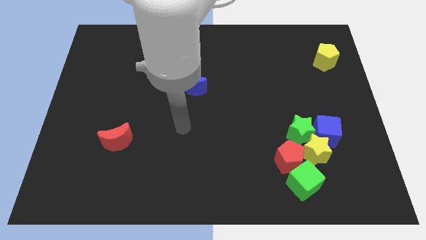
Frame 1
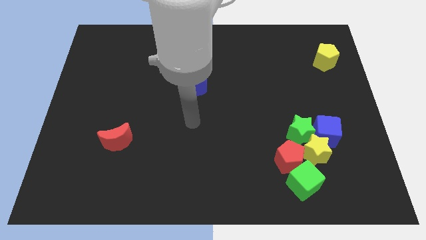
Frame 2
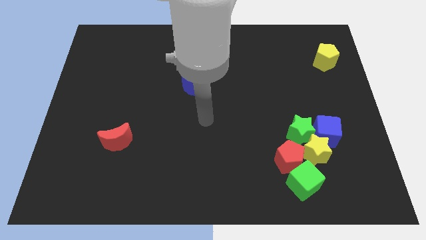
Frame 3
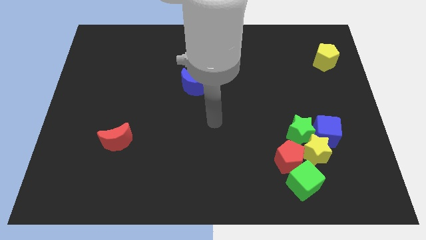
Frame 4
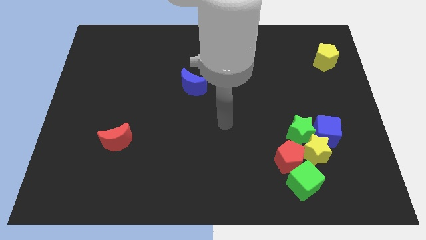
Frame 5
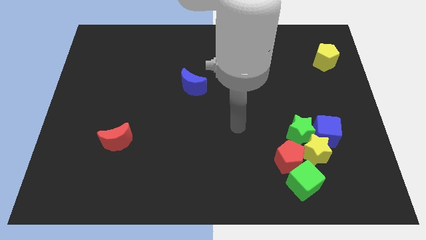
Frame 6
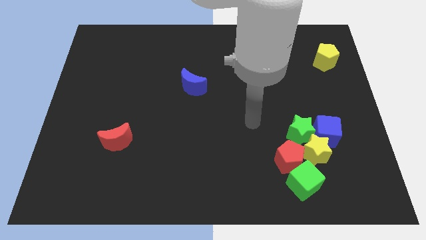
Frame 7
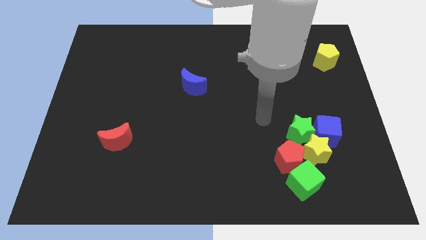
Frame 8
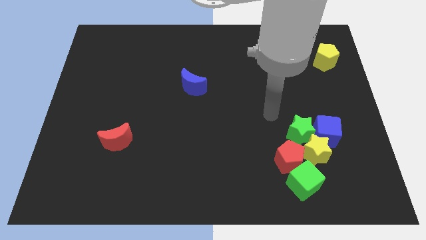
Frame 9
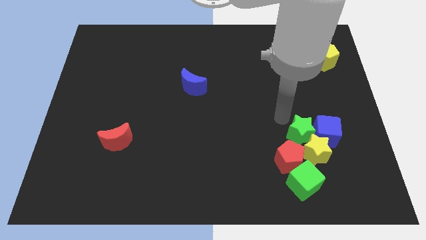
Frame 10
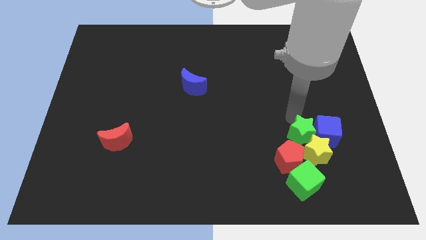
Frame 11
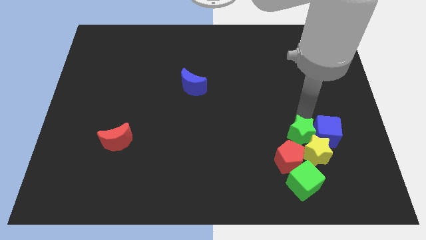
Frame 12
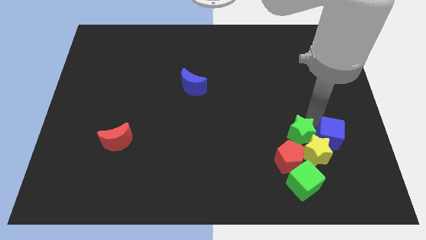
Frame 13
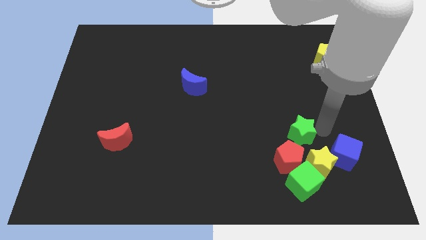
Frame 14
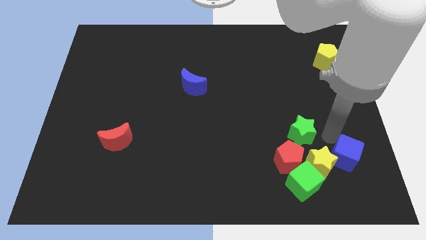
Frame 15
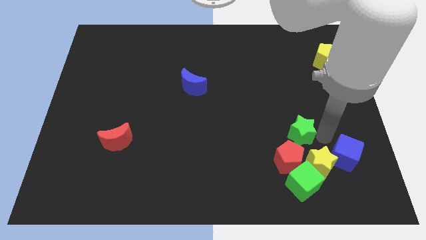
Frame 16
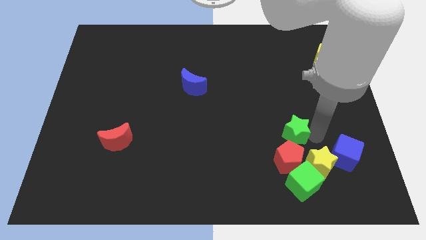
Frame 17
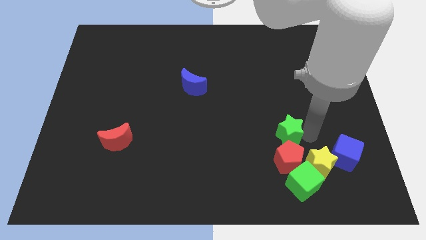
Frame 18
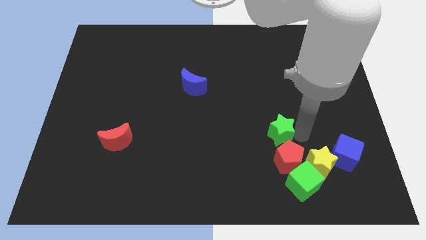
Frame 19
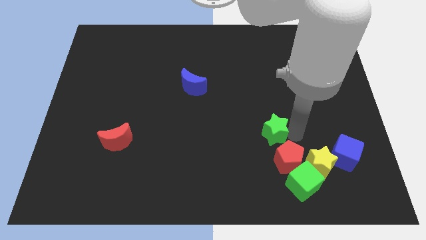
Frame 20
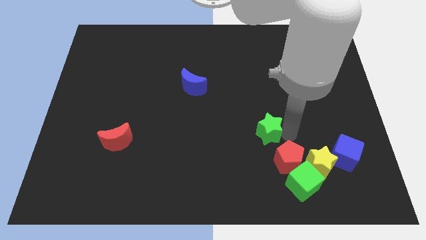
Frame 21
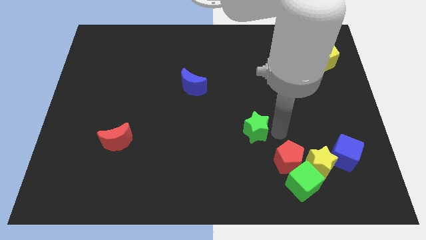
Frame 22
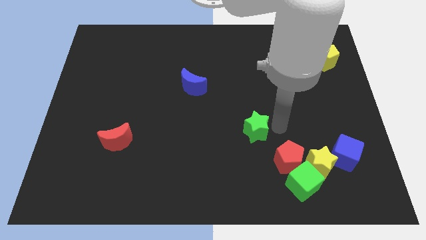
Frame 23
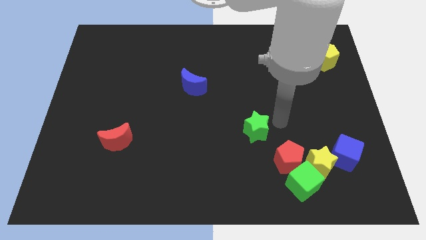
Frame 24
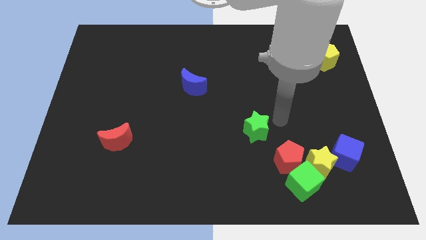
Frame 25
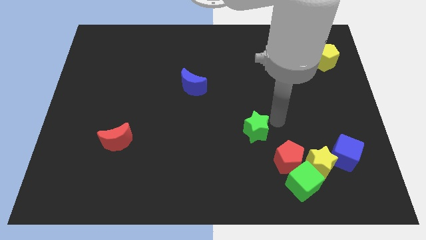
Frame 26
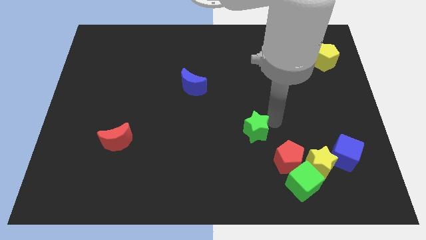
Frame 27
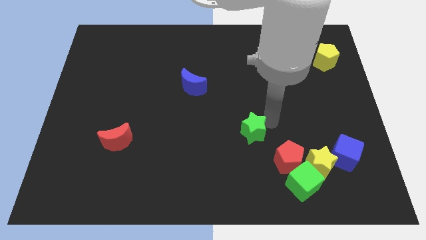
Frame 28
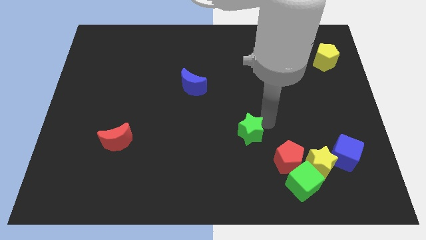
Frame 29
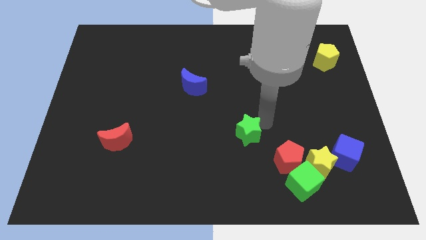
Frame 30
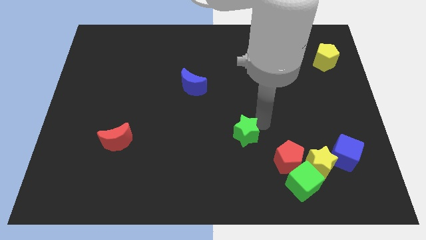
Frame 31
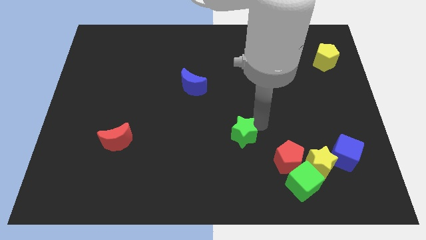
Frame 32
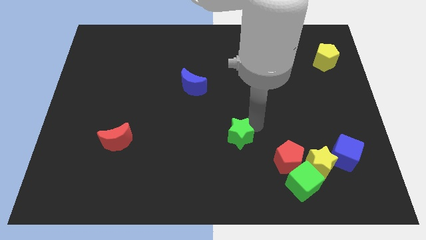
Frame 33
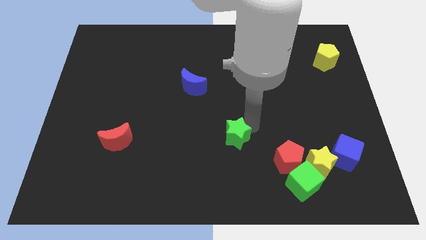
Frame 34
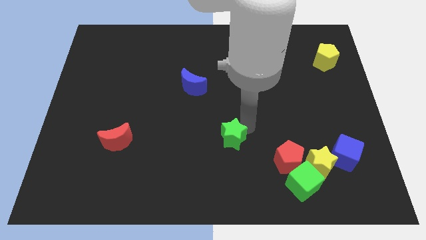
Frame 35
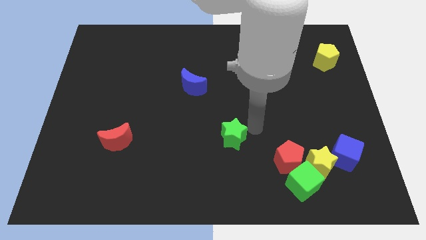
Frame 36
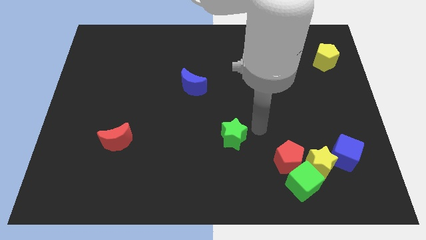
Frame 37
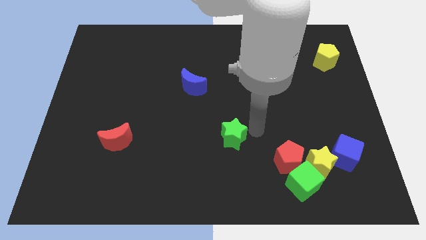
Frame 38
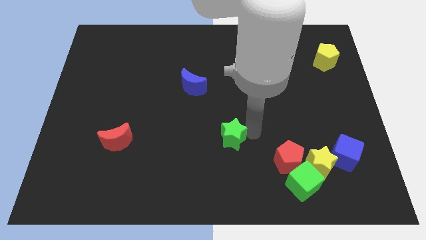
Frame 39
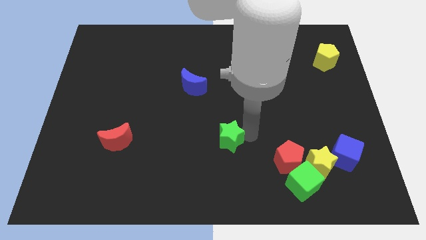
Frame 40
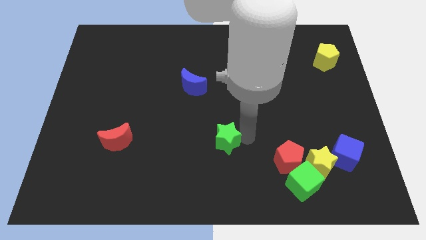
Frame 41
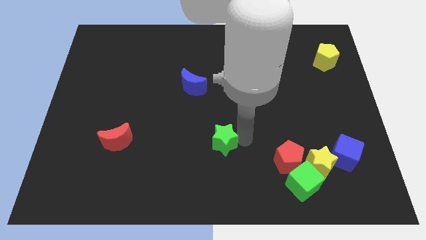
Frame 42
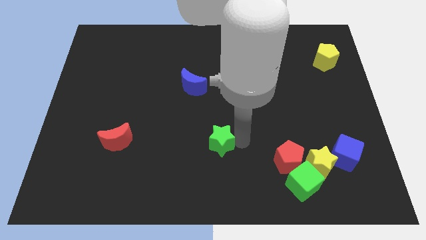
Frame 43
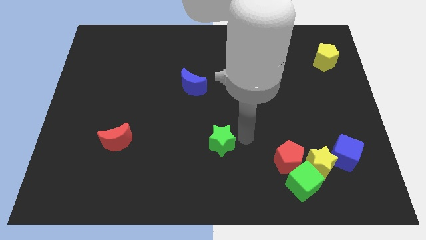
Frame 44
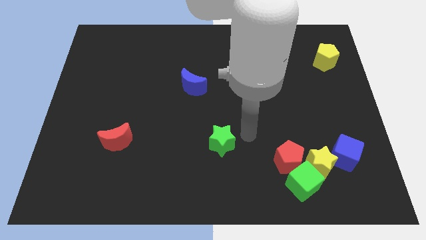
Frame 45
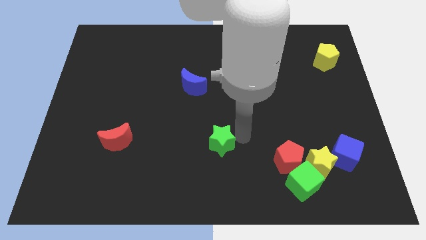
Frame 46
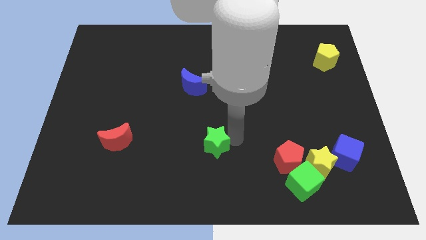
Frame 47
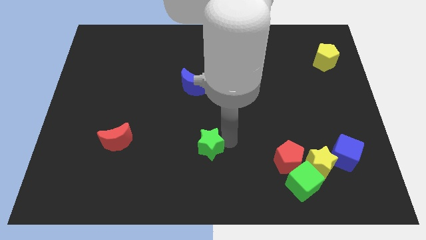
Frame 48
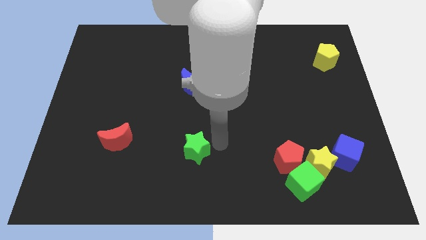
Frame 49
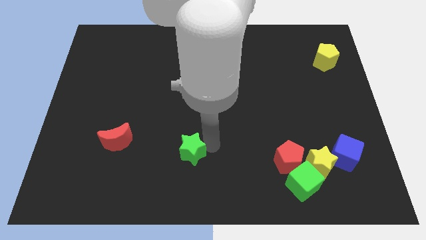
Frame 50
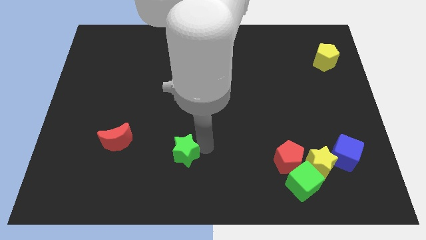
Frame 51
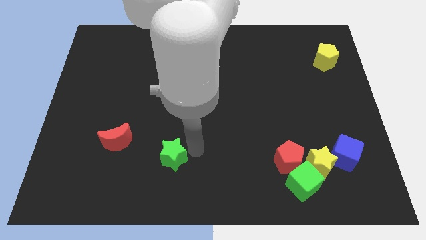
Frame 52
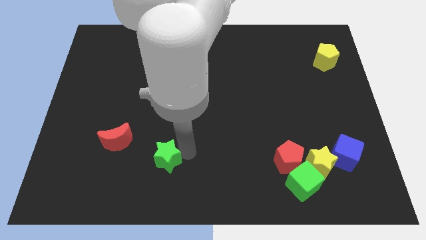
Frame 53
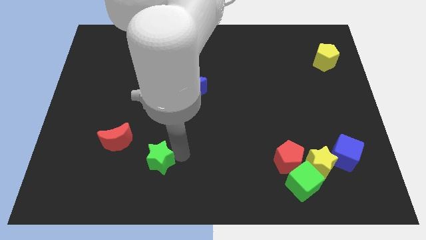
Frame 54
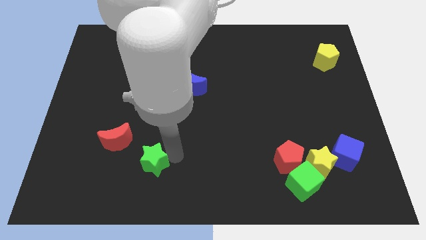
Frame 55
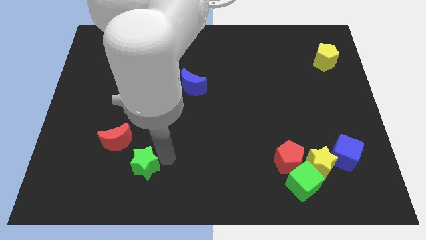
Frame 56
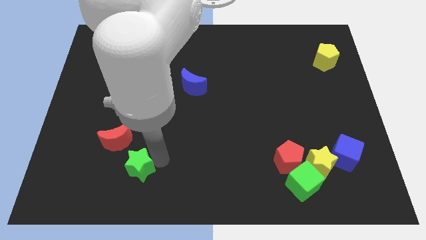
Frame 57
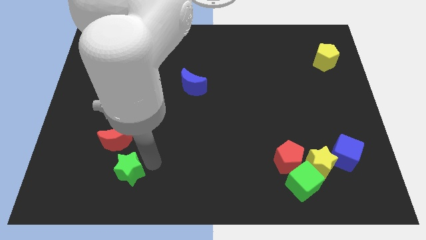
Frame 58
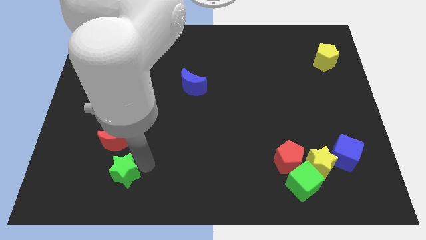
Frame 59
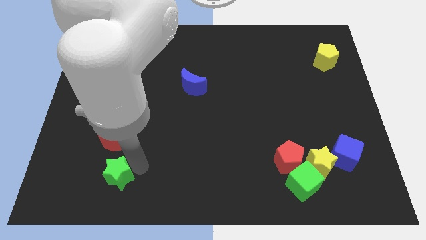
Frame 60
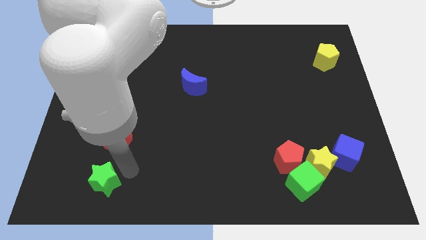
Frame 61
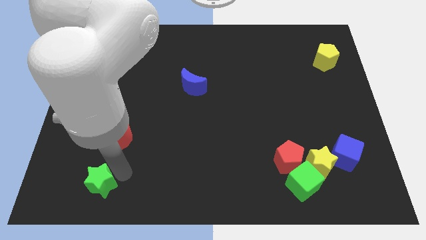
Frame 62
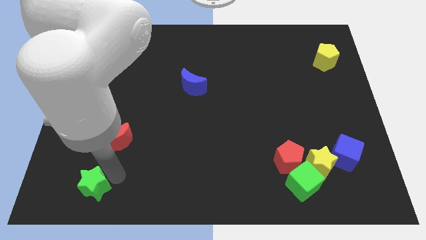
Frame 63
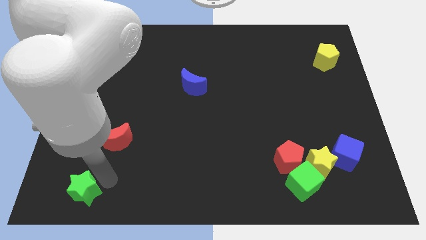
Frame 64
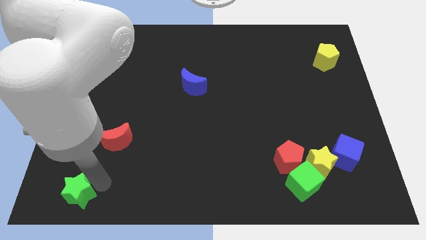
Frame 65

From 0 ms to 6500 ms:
put the green star to the lower left corner

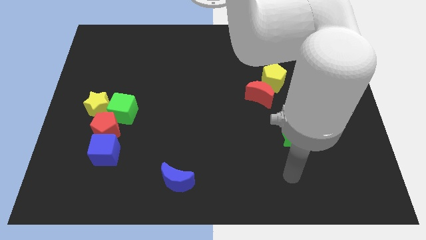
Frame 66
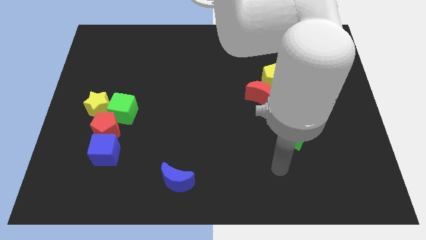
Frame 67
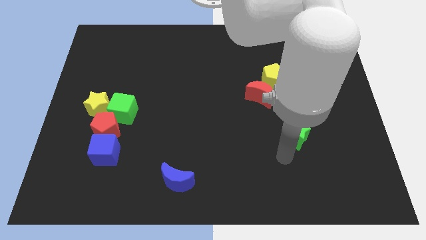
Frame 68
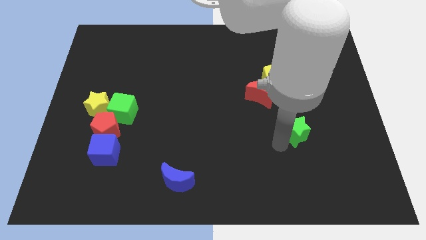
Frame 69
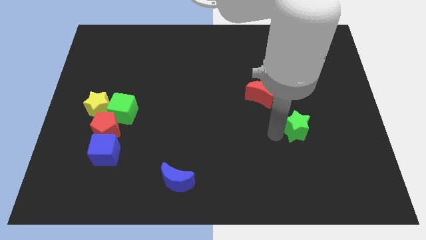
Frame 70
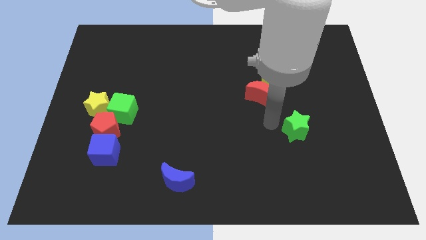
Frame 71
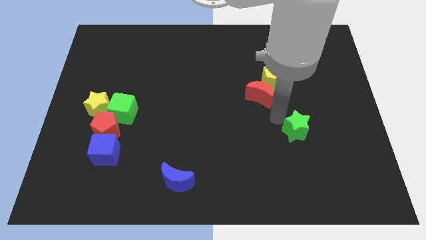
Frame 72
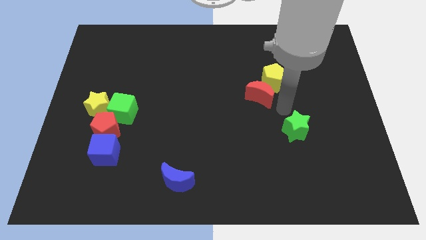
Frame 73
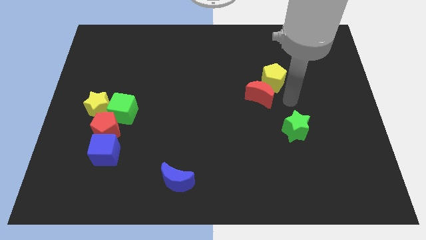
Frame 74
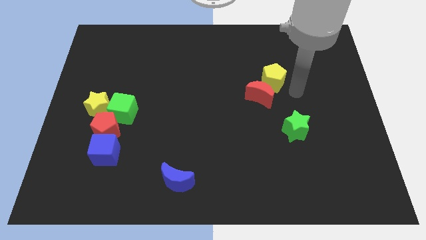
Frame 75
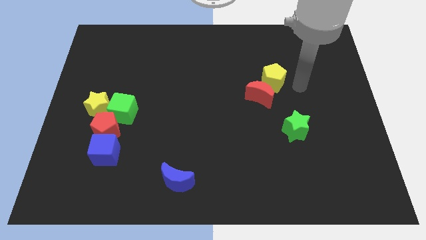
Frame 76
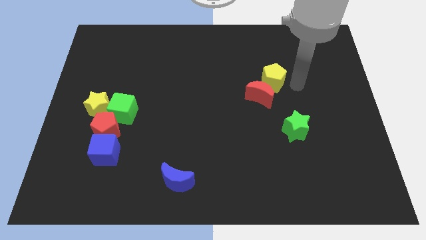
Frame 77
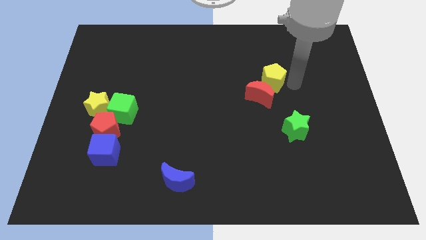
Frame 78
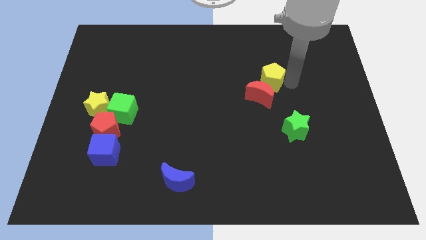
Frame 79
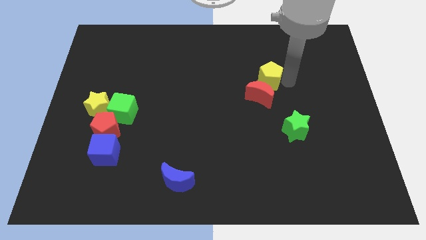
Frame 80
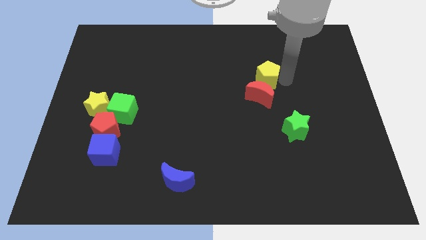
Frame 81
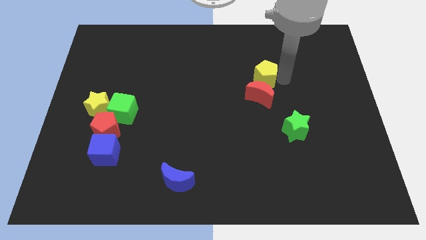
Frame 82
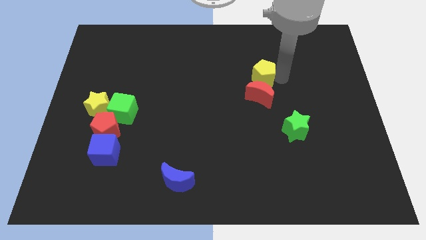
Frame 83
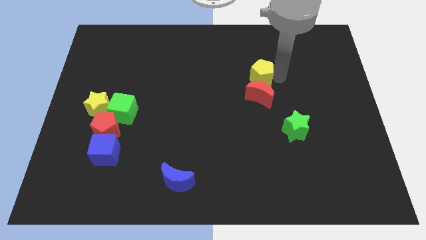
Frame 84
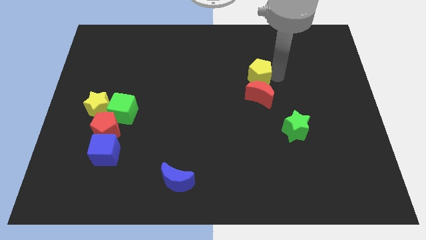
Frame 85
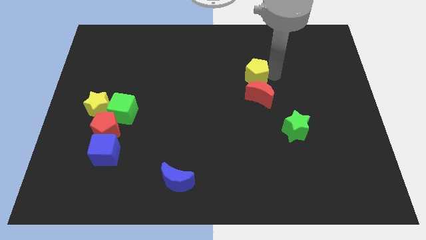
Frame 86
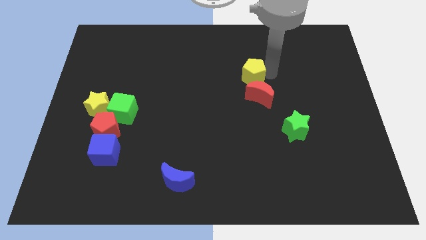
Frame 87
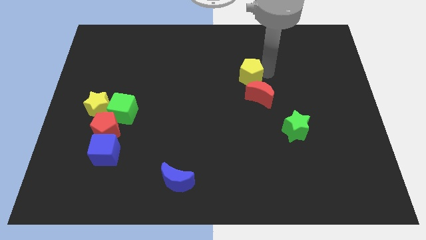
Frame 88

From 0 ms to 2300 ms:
slide the yellow pentagon to the center
